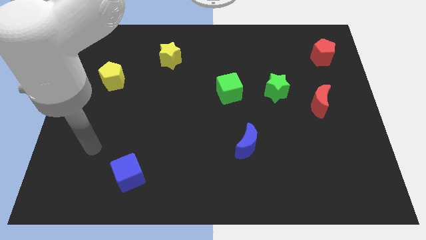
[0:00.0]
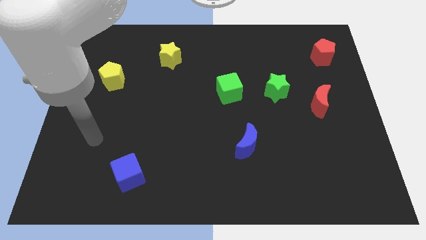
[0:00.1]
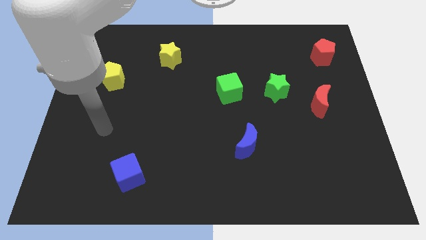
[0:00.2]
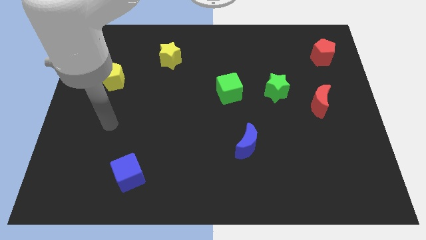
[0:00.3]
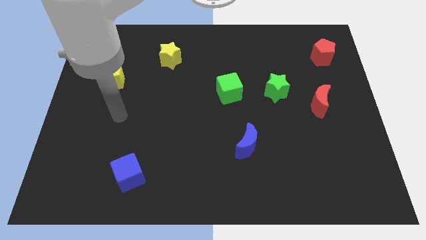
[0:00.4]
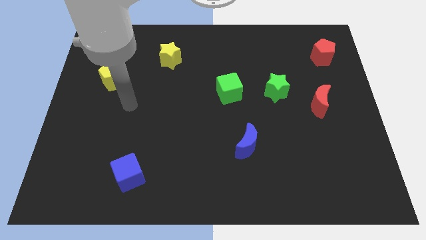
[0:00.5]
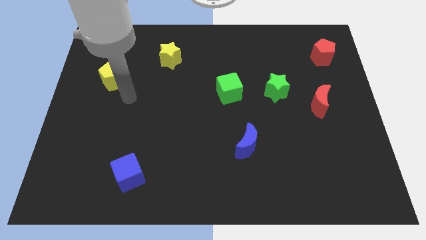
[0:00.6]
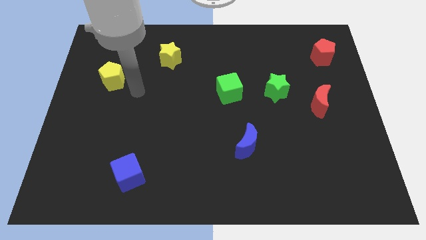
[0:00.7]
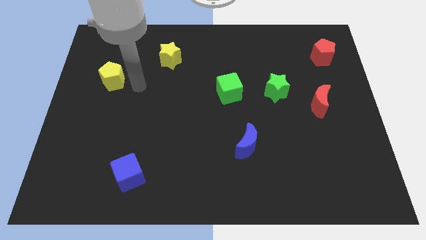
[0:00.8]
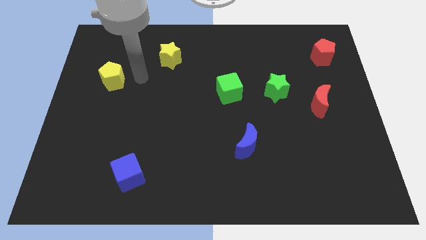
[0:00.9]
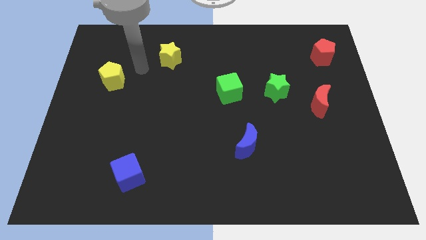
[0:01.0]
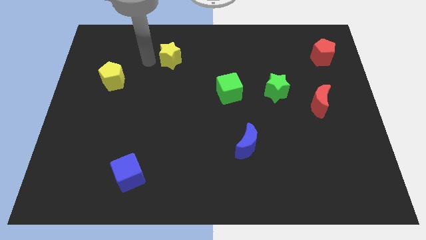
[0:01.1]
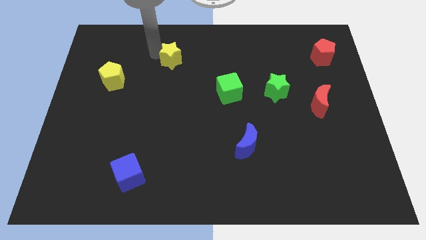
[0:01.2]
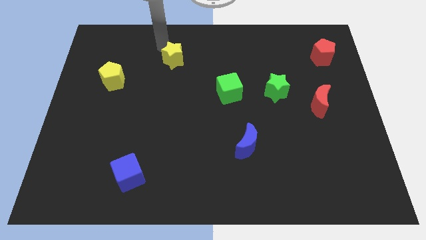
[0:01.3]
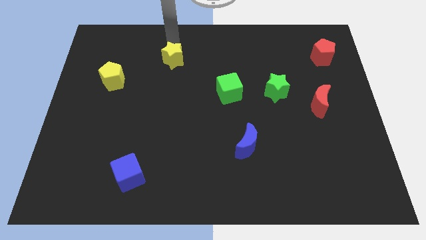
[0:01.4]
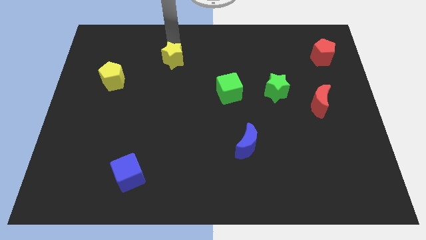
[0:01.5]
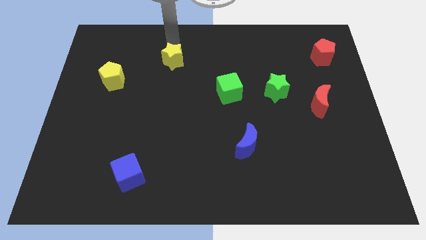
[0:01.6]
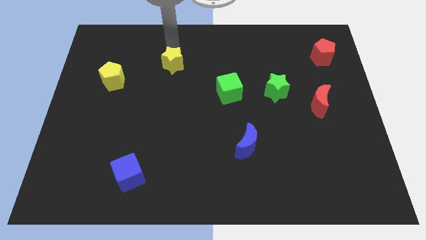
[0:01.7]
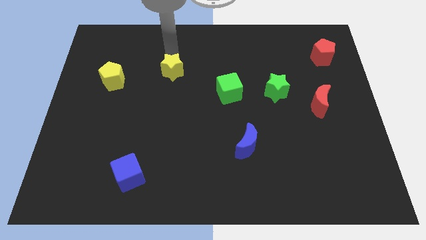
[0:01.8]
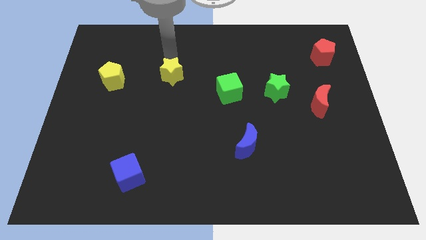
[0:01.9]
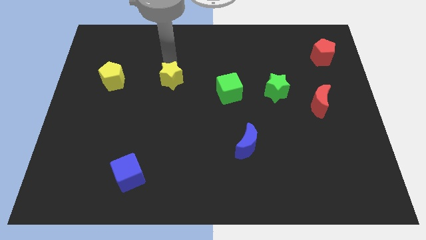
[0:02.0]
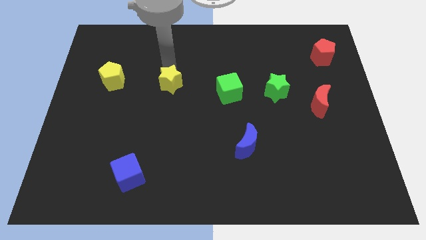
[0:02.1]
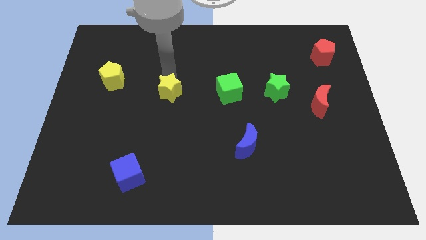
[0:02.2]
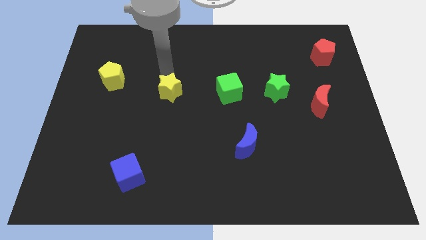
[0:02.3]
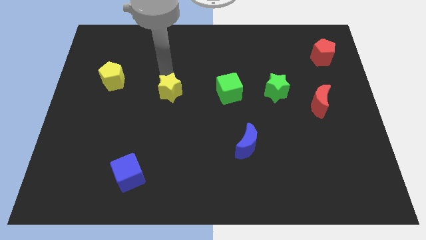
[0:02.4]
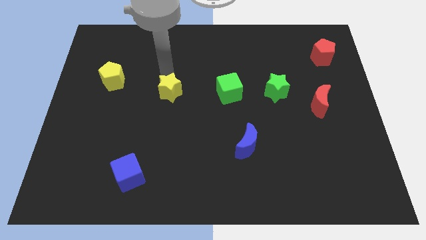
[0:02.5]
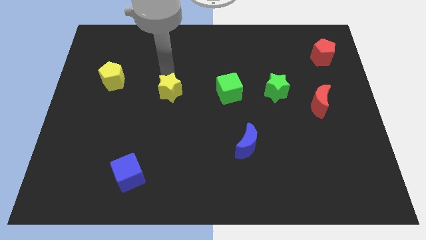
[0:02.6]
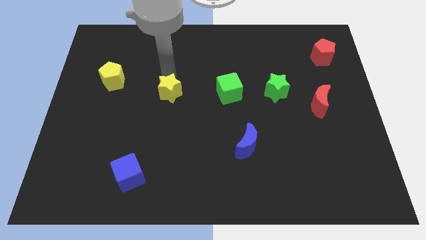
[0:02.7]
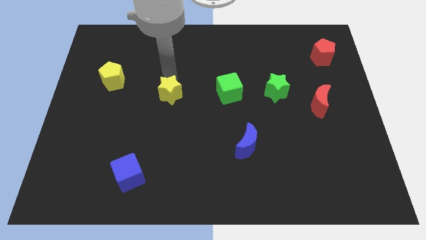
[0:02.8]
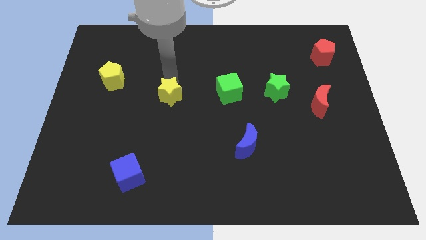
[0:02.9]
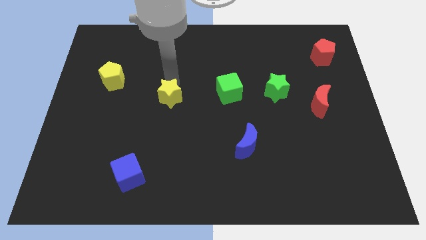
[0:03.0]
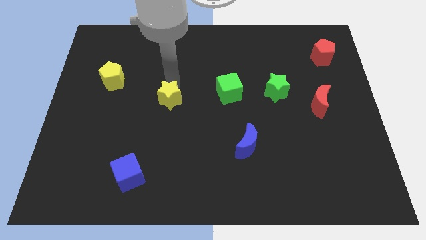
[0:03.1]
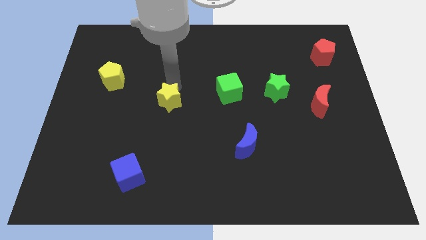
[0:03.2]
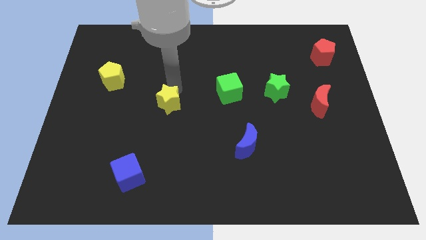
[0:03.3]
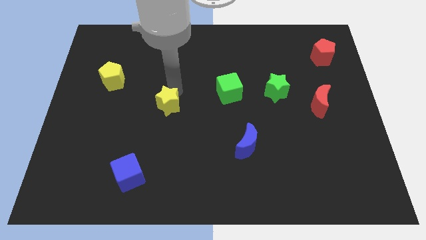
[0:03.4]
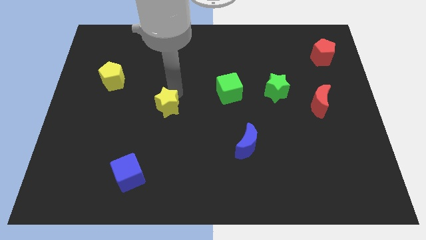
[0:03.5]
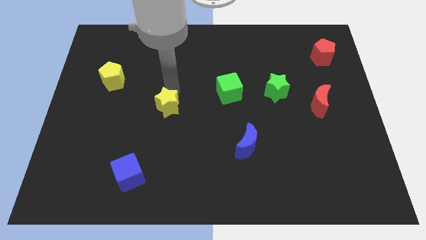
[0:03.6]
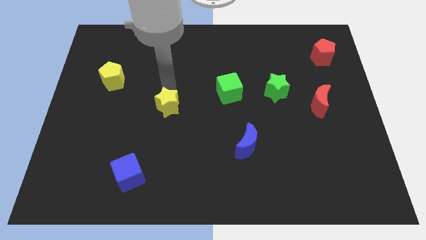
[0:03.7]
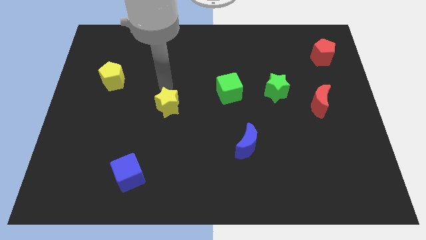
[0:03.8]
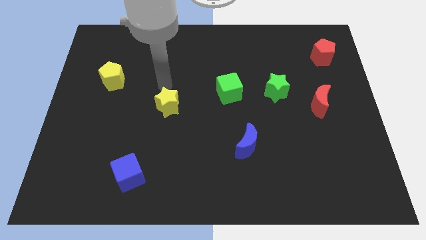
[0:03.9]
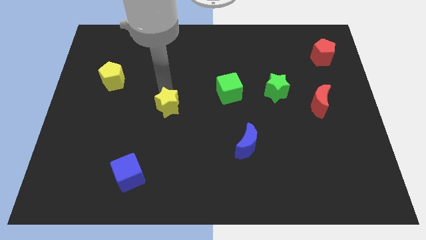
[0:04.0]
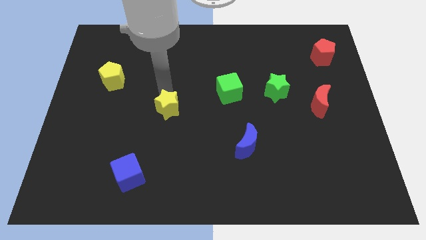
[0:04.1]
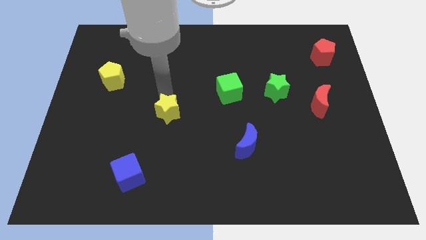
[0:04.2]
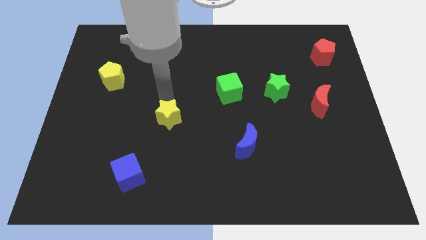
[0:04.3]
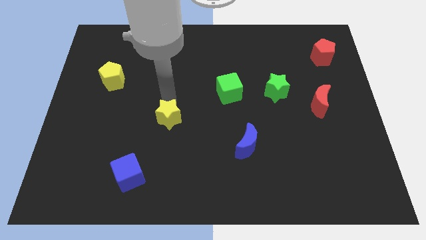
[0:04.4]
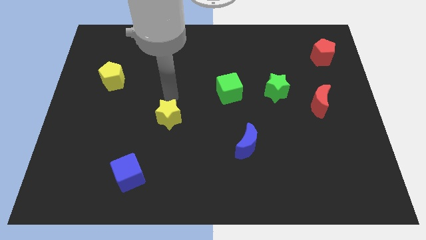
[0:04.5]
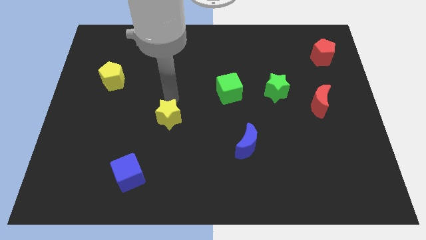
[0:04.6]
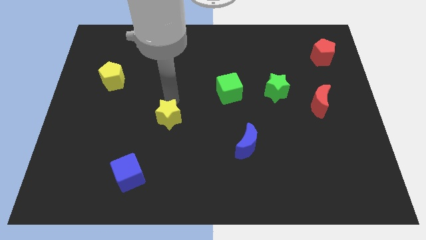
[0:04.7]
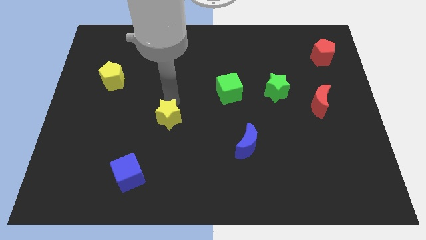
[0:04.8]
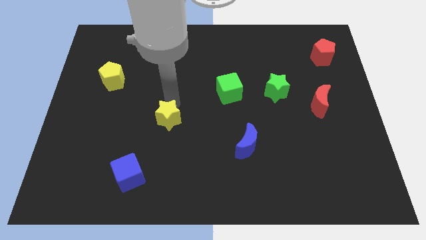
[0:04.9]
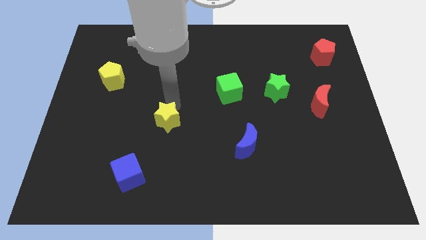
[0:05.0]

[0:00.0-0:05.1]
slide the yellow star down

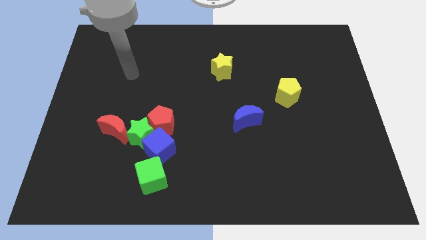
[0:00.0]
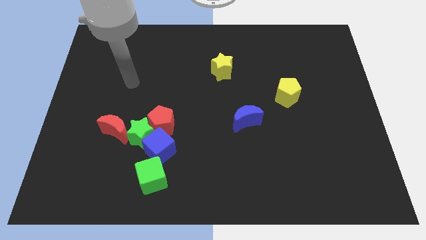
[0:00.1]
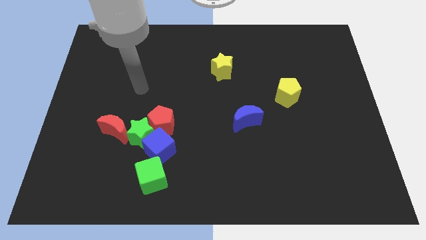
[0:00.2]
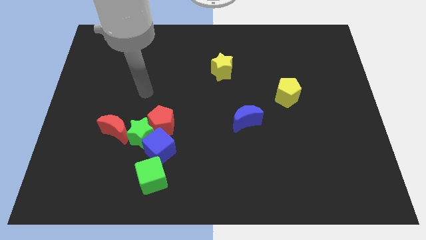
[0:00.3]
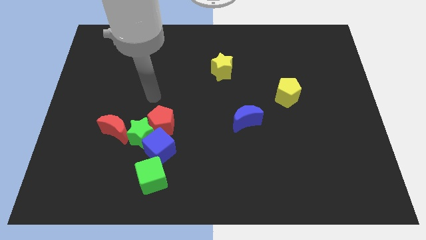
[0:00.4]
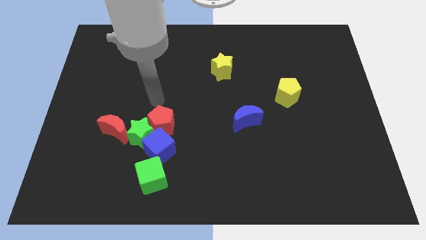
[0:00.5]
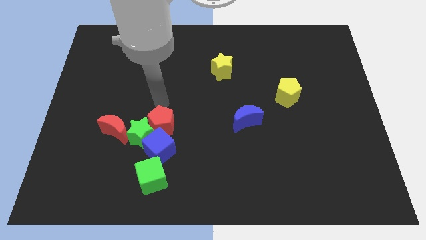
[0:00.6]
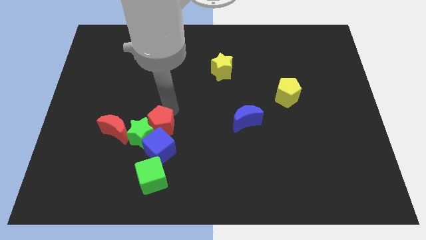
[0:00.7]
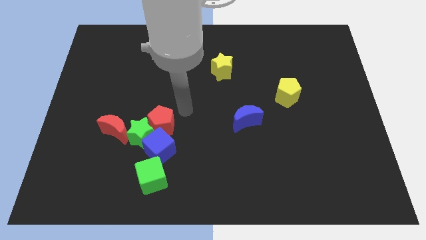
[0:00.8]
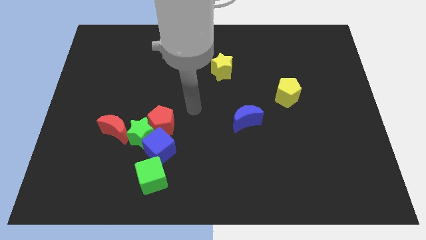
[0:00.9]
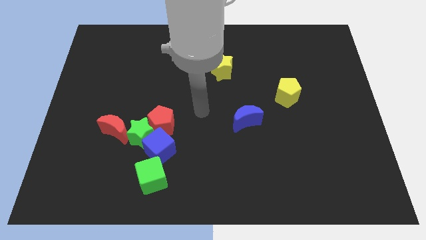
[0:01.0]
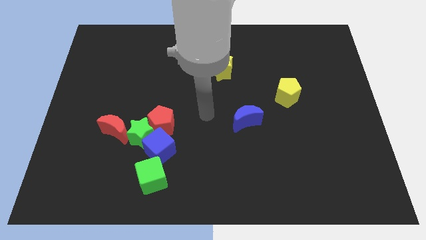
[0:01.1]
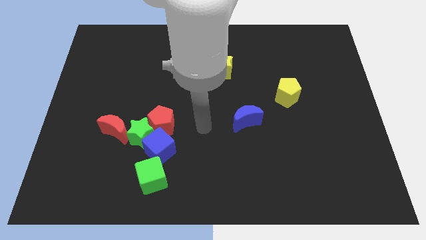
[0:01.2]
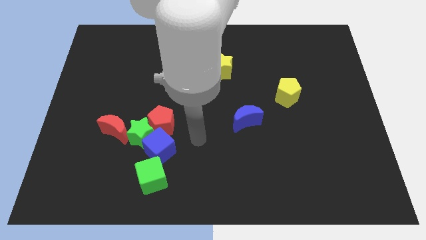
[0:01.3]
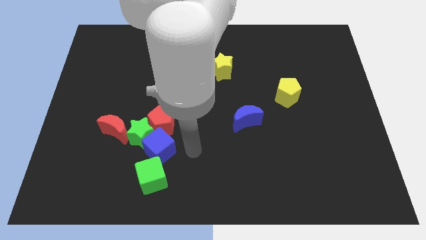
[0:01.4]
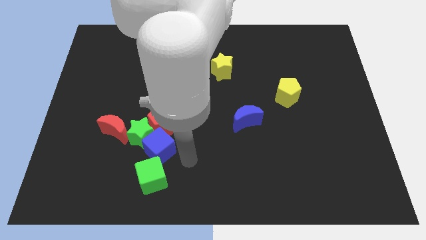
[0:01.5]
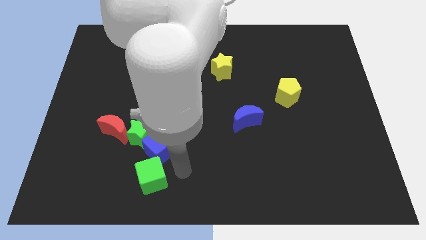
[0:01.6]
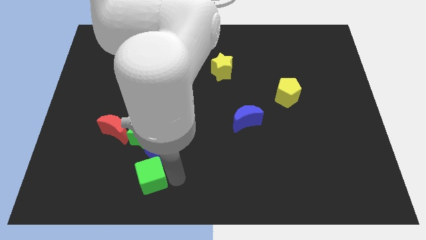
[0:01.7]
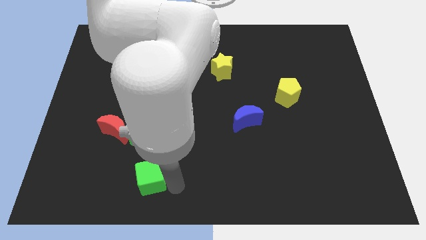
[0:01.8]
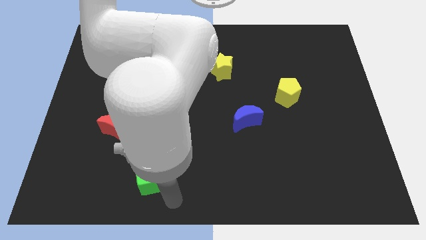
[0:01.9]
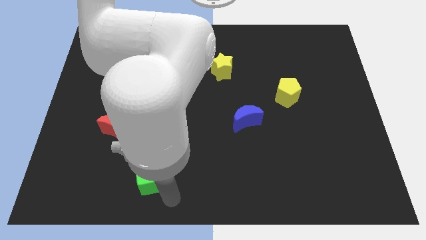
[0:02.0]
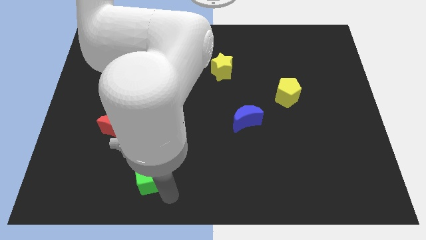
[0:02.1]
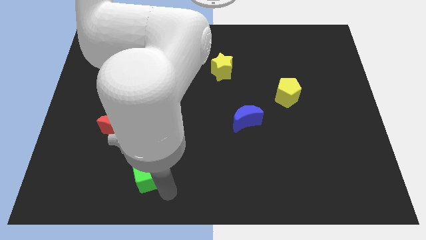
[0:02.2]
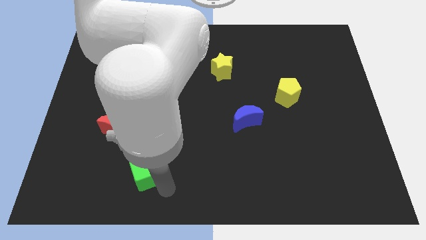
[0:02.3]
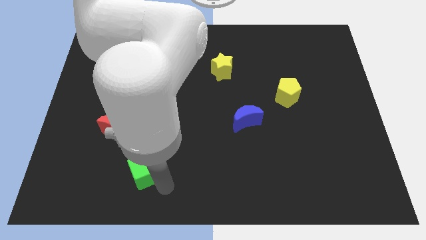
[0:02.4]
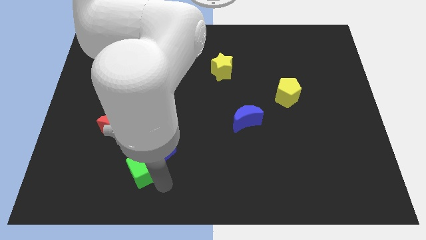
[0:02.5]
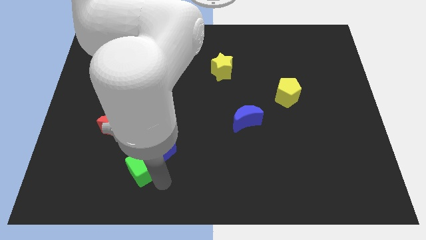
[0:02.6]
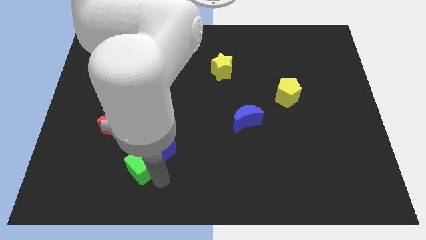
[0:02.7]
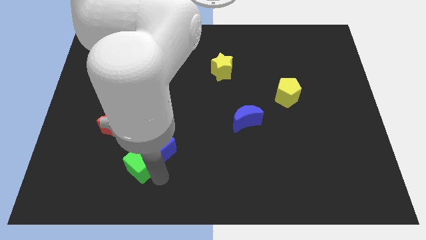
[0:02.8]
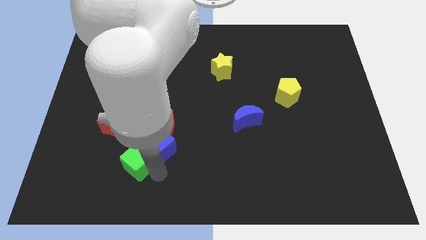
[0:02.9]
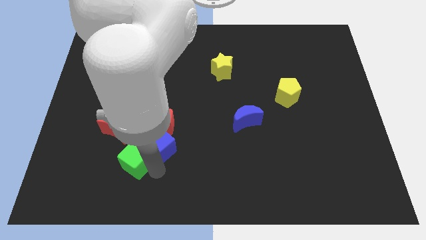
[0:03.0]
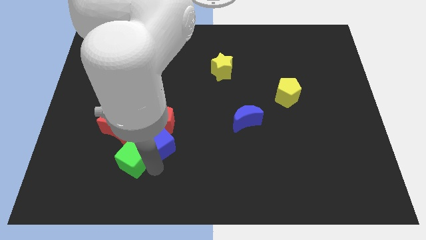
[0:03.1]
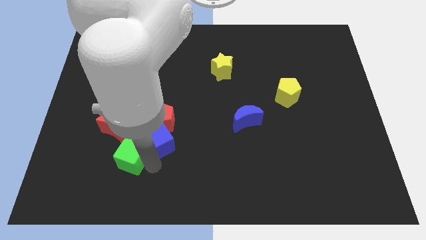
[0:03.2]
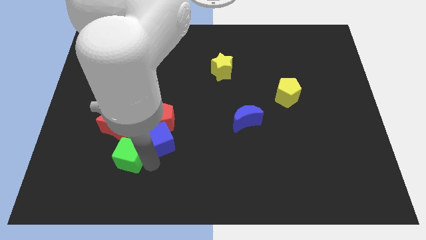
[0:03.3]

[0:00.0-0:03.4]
push the green cube upwards and to the left a little bit
